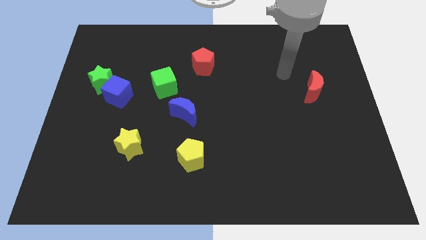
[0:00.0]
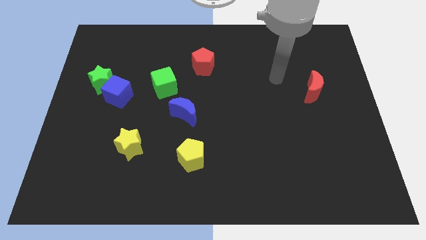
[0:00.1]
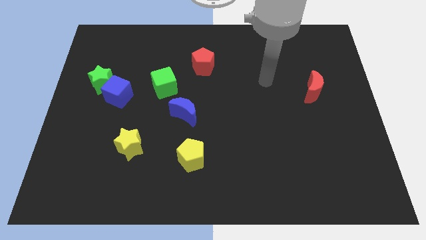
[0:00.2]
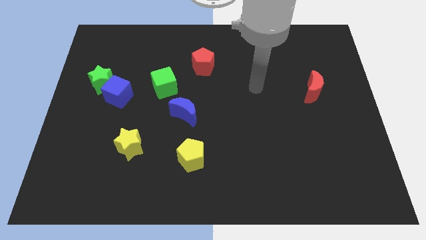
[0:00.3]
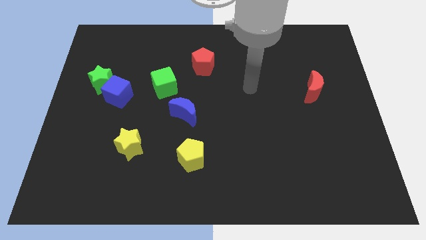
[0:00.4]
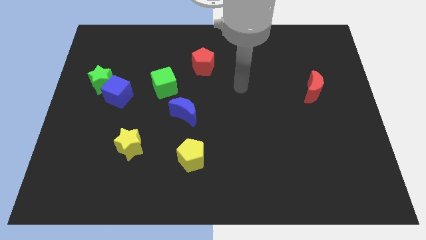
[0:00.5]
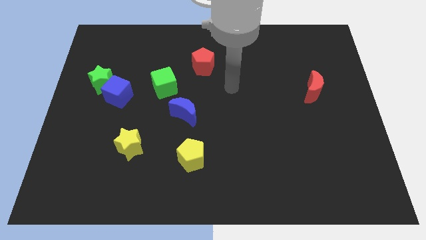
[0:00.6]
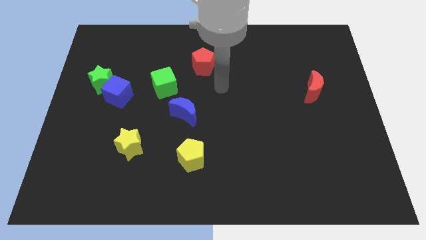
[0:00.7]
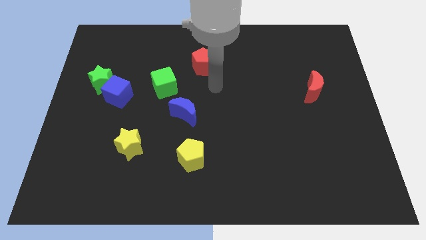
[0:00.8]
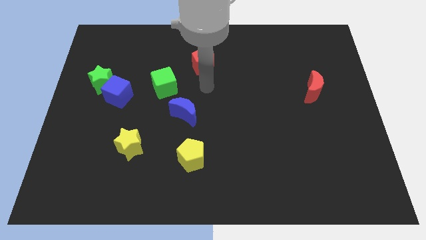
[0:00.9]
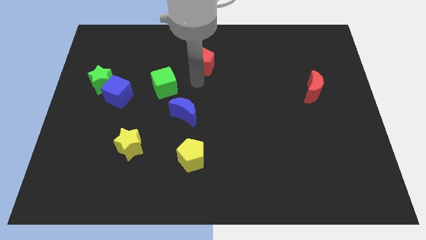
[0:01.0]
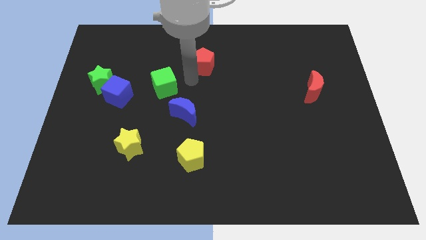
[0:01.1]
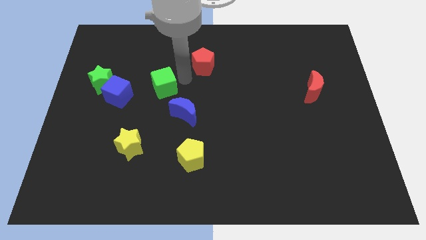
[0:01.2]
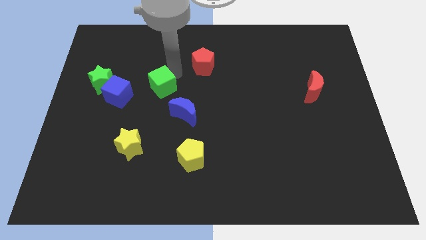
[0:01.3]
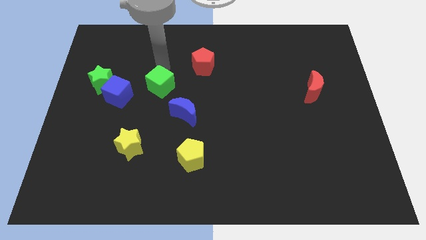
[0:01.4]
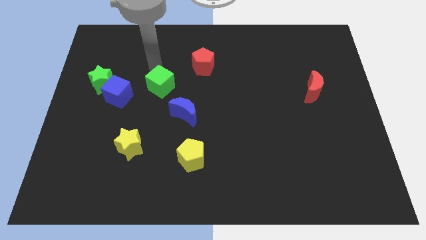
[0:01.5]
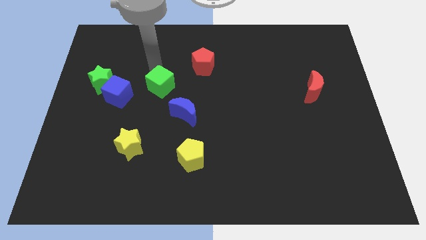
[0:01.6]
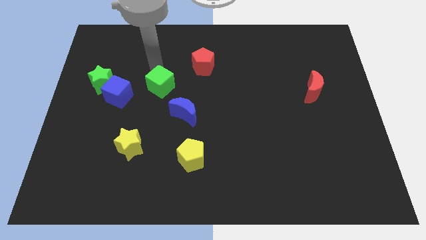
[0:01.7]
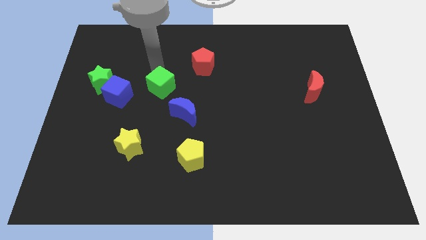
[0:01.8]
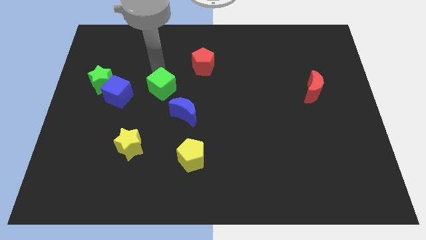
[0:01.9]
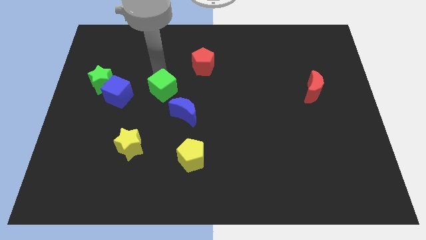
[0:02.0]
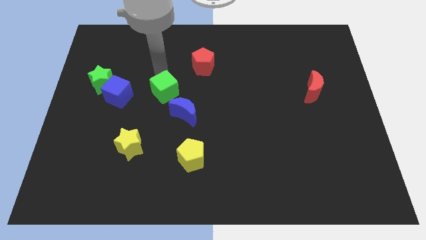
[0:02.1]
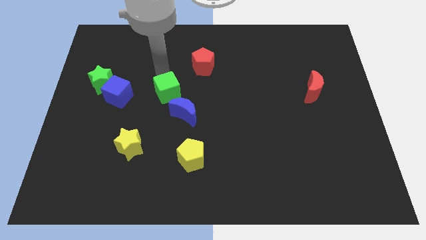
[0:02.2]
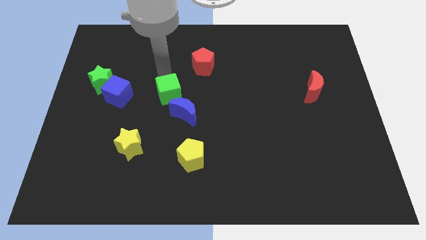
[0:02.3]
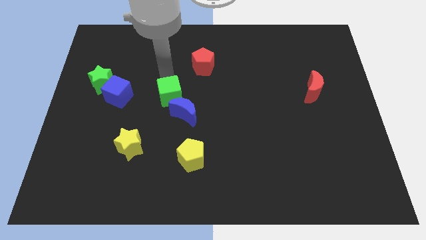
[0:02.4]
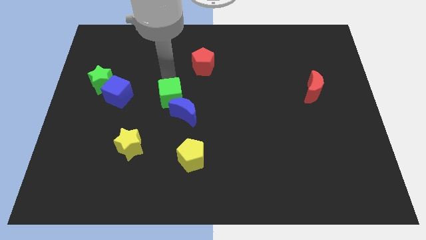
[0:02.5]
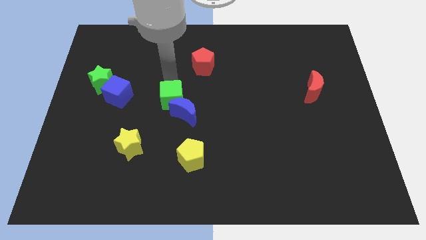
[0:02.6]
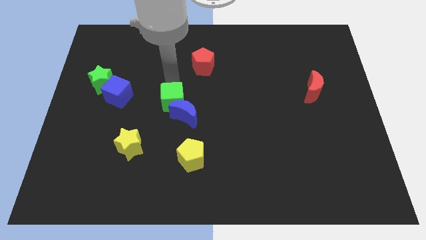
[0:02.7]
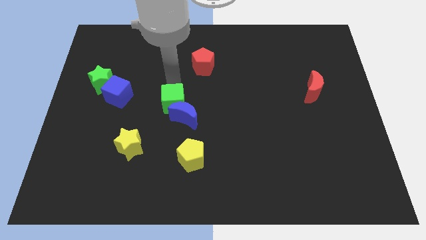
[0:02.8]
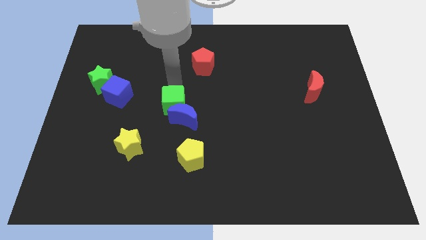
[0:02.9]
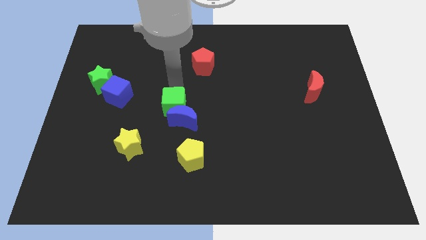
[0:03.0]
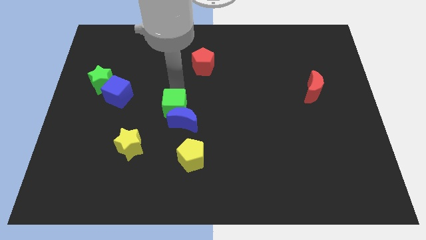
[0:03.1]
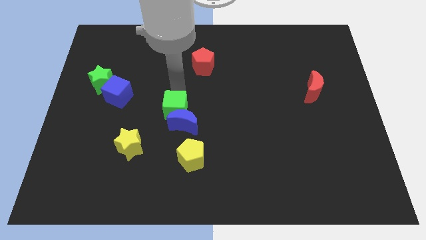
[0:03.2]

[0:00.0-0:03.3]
move the green cube a little downwards

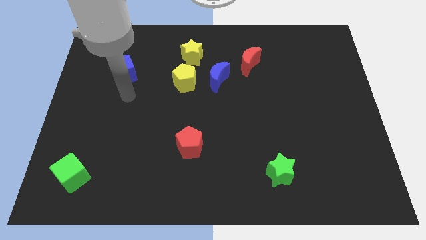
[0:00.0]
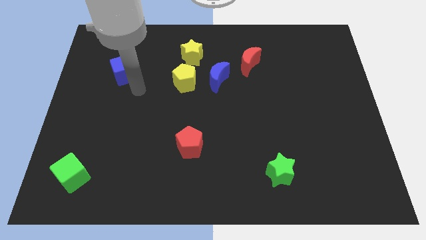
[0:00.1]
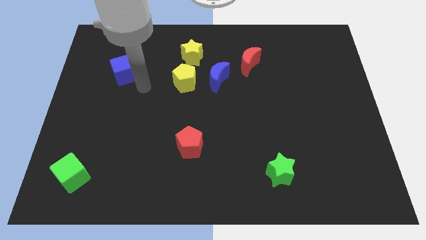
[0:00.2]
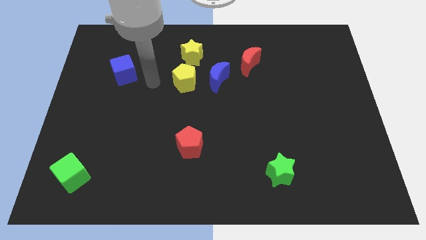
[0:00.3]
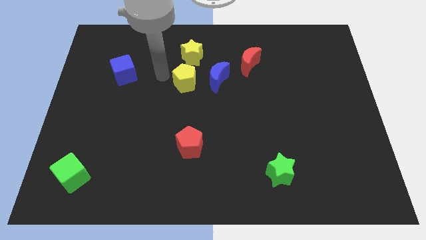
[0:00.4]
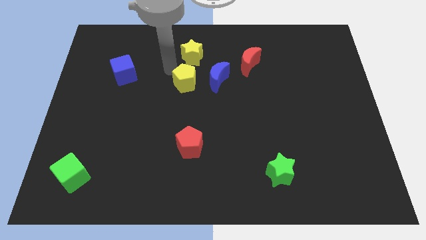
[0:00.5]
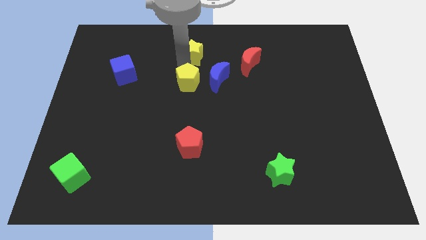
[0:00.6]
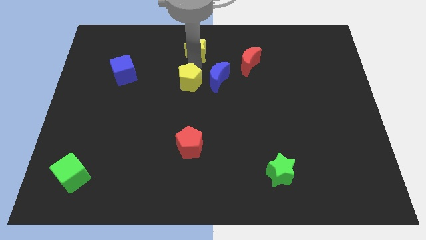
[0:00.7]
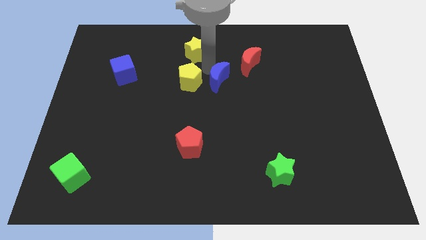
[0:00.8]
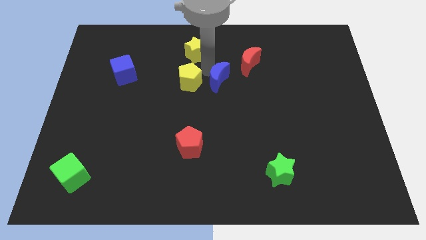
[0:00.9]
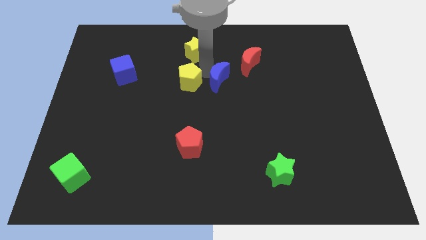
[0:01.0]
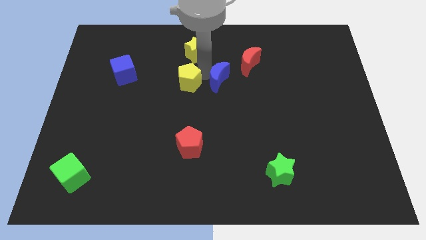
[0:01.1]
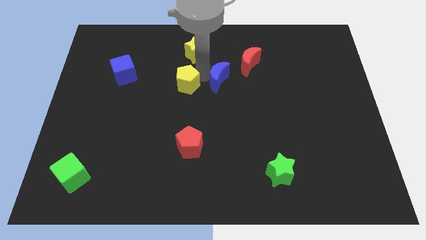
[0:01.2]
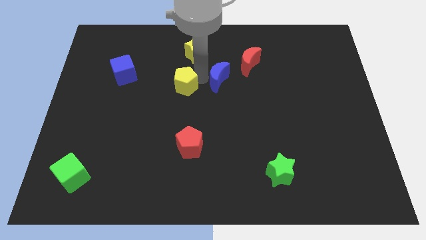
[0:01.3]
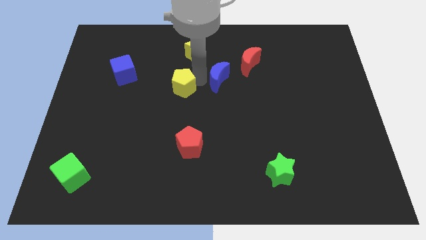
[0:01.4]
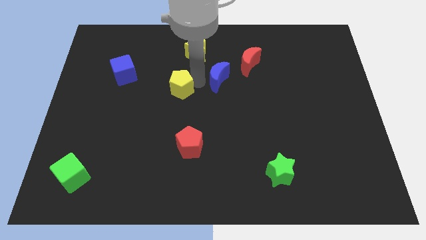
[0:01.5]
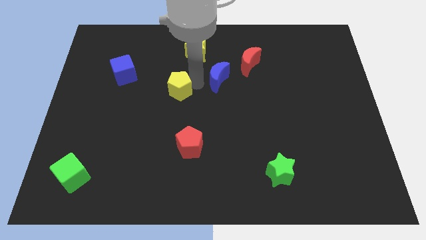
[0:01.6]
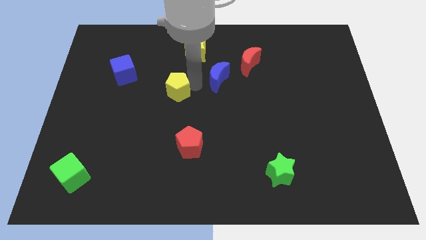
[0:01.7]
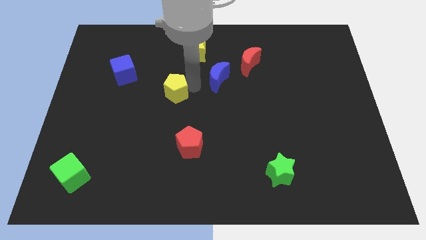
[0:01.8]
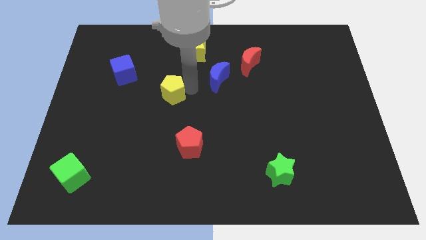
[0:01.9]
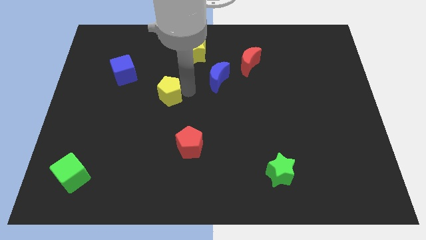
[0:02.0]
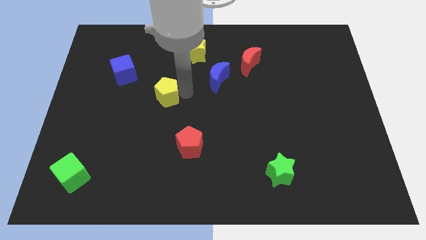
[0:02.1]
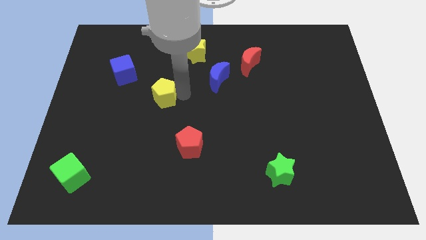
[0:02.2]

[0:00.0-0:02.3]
move the yellow pentagon somewhat down and to the left

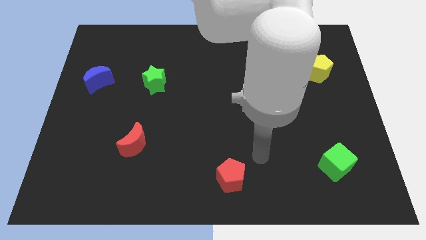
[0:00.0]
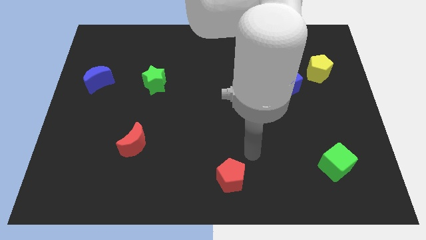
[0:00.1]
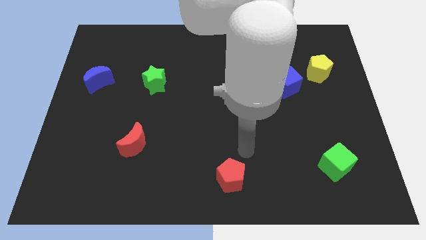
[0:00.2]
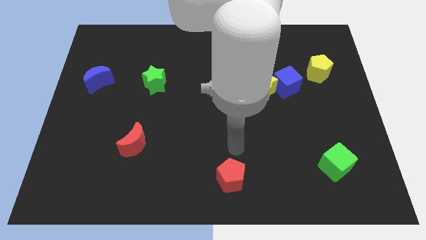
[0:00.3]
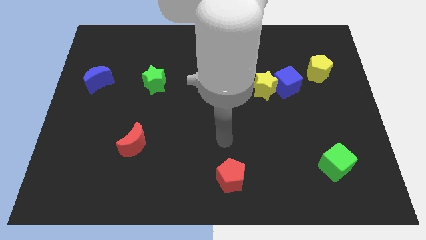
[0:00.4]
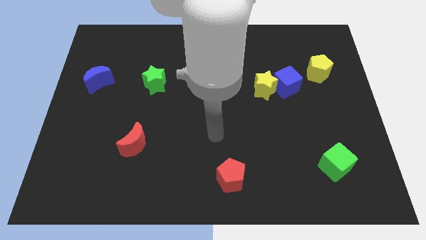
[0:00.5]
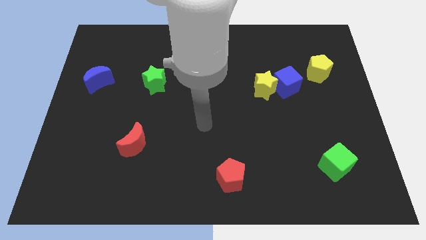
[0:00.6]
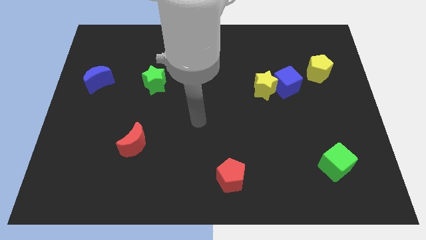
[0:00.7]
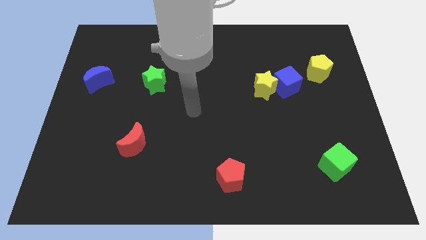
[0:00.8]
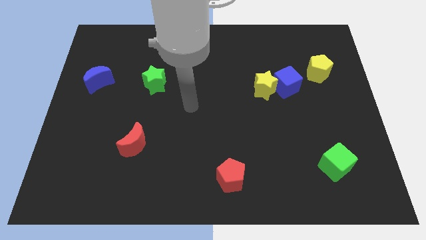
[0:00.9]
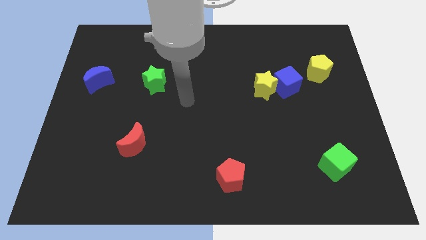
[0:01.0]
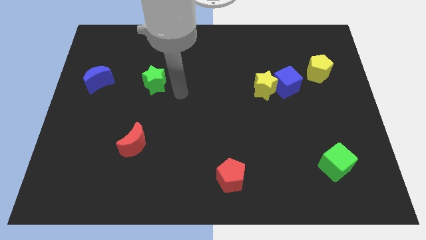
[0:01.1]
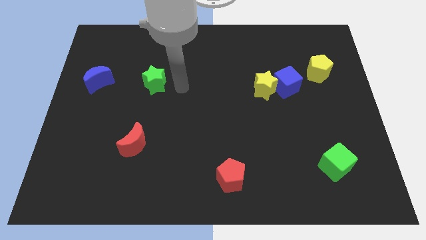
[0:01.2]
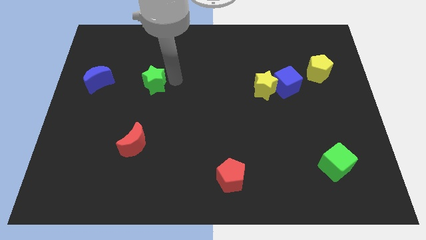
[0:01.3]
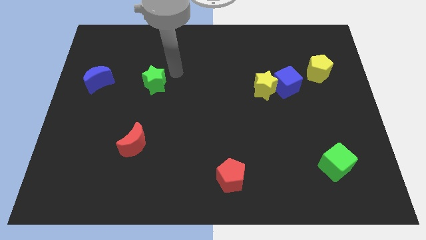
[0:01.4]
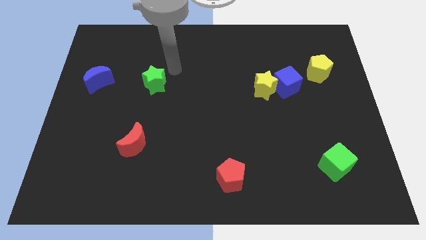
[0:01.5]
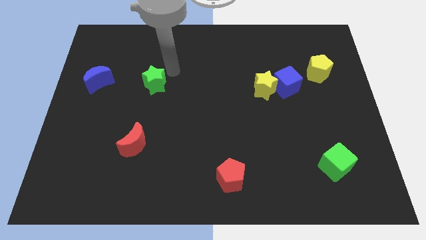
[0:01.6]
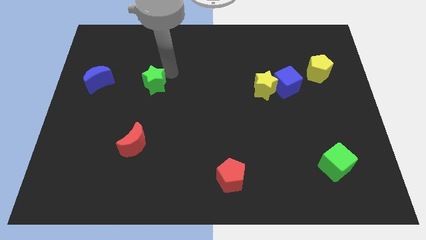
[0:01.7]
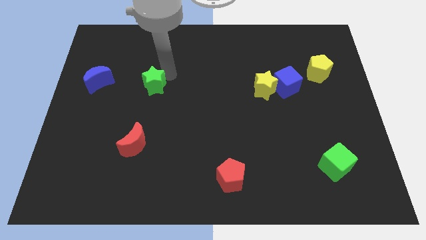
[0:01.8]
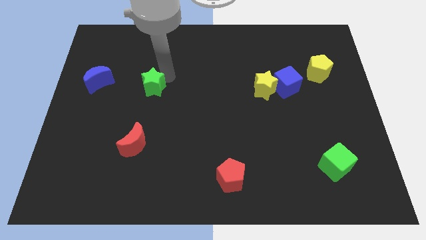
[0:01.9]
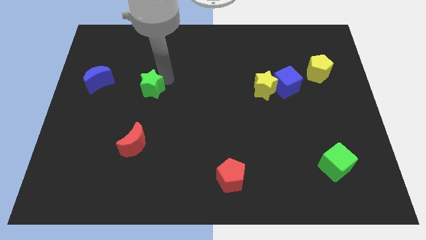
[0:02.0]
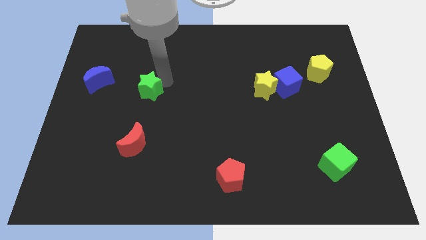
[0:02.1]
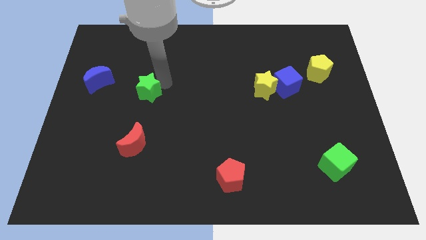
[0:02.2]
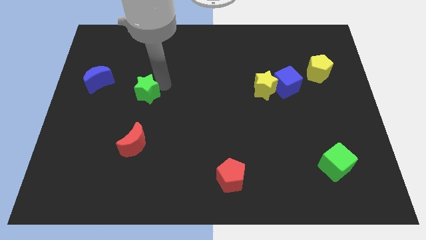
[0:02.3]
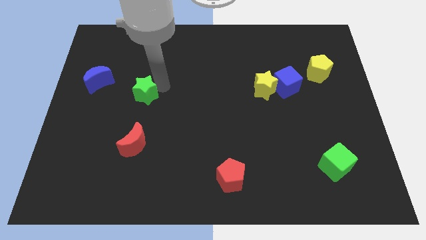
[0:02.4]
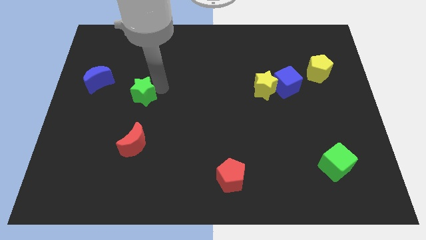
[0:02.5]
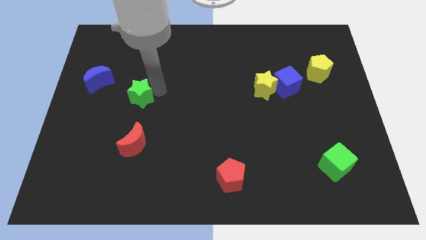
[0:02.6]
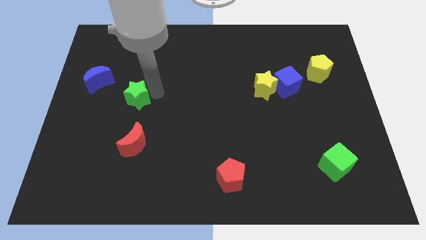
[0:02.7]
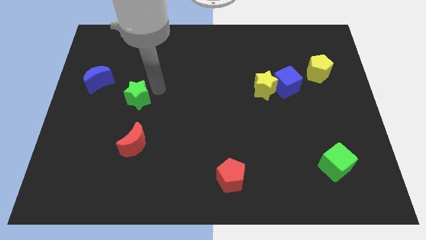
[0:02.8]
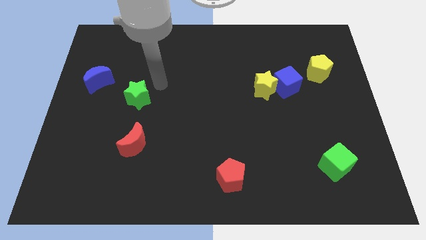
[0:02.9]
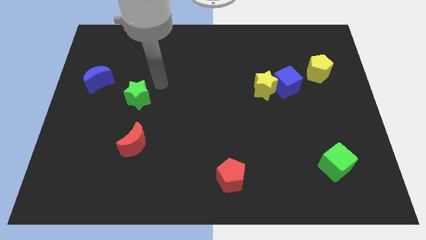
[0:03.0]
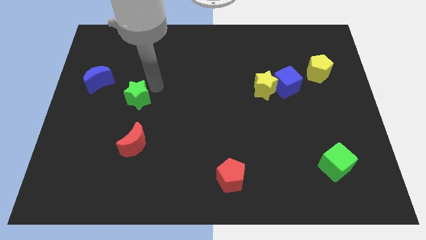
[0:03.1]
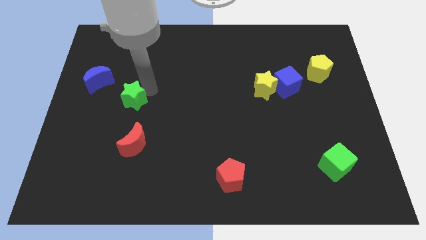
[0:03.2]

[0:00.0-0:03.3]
move the green star a little down and left diagonally
